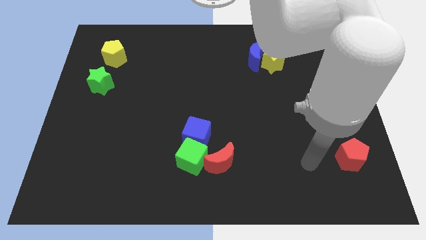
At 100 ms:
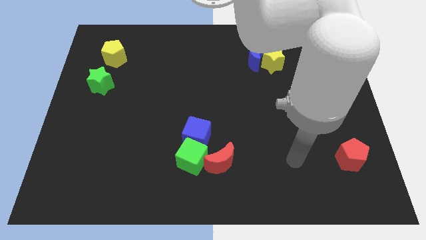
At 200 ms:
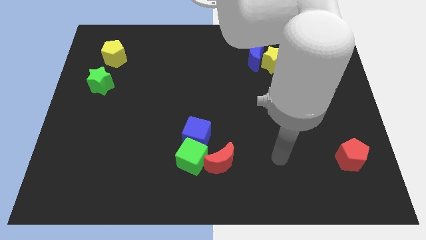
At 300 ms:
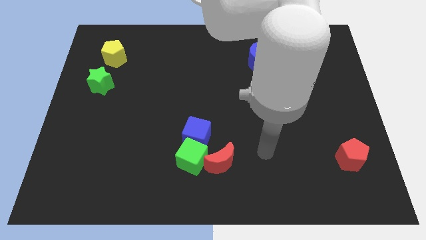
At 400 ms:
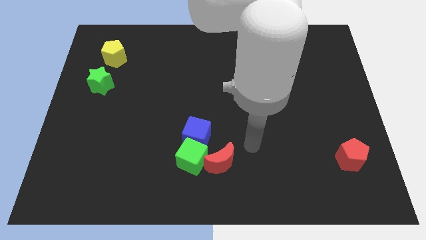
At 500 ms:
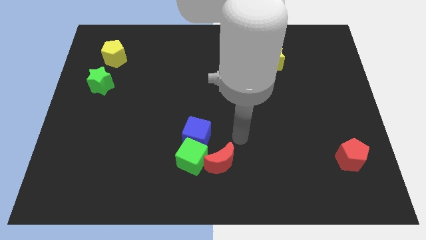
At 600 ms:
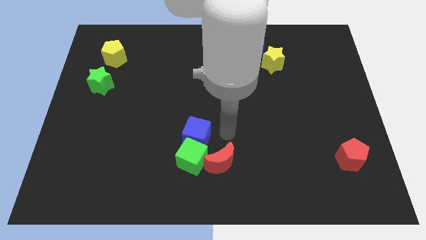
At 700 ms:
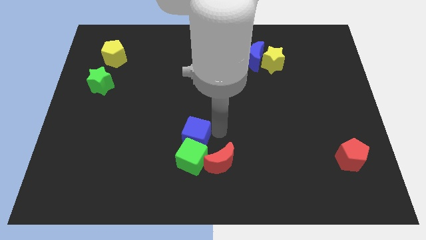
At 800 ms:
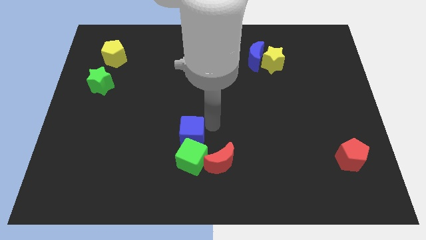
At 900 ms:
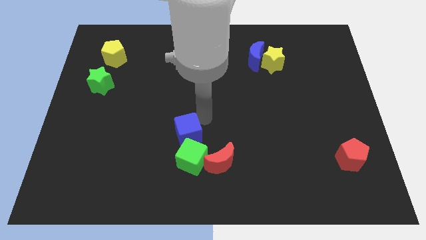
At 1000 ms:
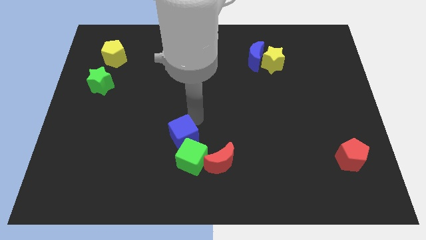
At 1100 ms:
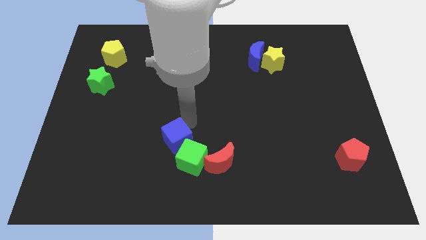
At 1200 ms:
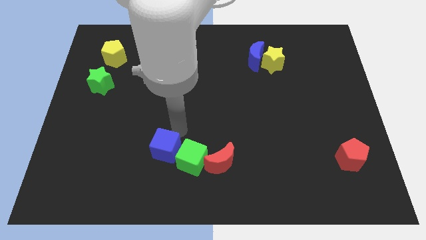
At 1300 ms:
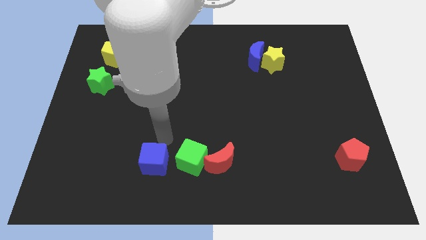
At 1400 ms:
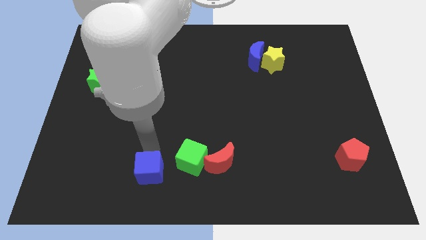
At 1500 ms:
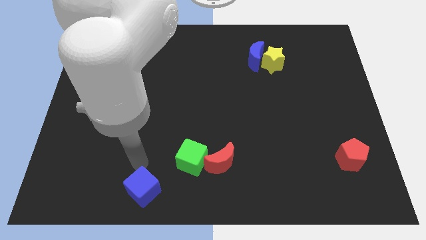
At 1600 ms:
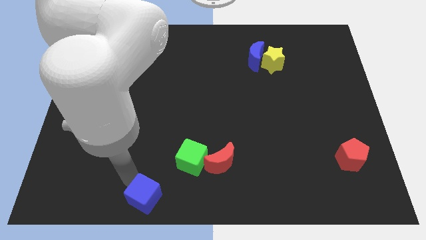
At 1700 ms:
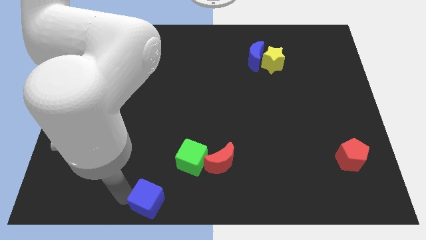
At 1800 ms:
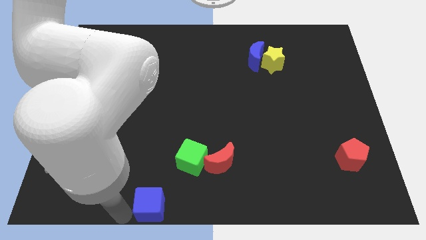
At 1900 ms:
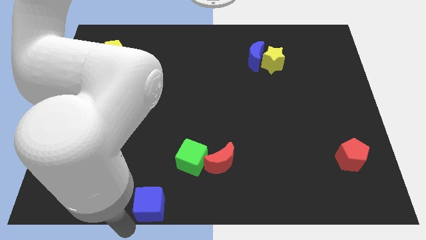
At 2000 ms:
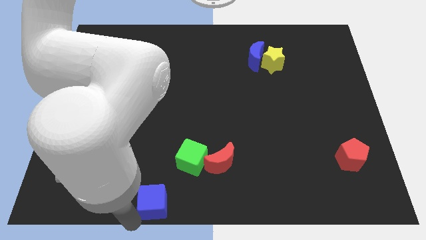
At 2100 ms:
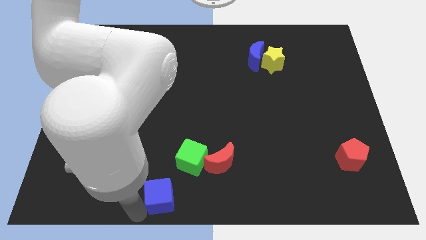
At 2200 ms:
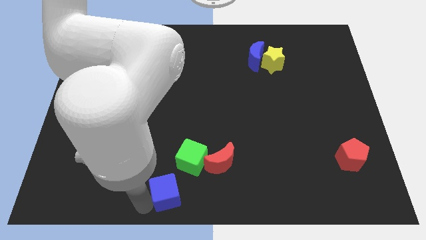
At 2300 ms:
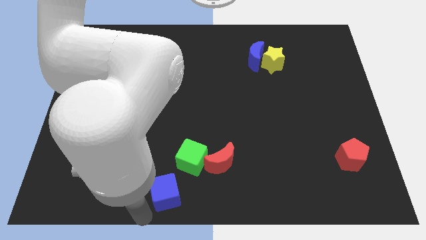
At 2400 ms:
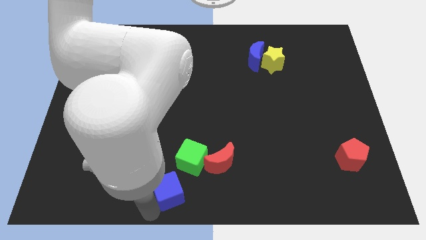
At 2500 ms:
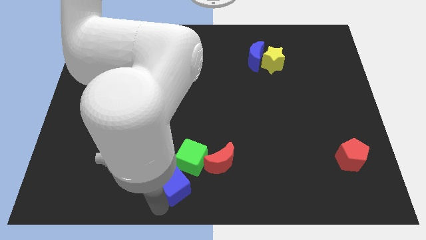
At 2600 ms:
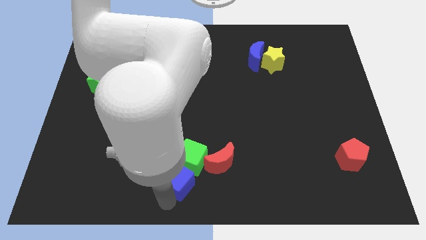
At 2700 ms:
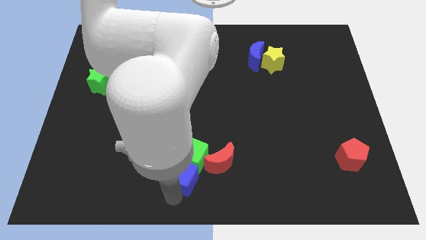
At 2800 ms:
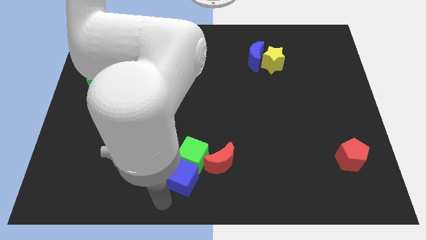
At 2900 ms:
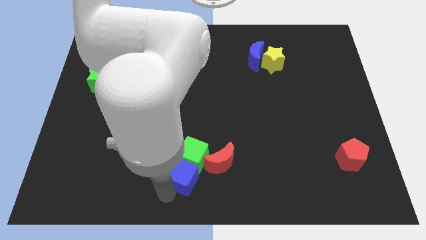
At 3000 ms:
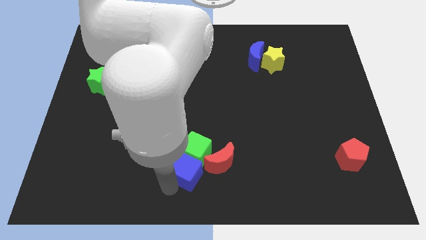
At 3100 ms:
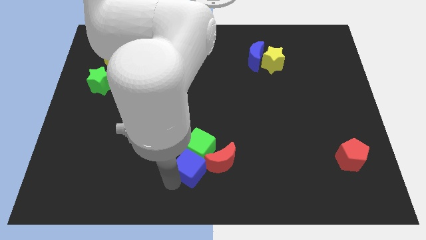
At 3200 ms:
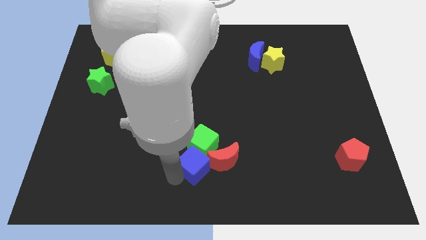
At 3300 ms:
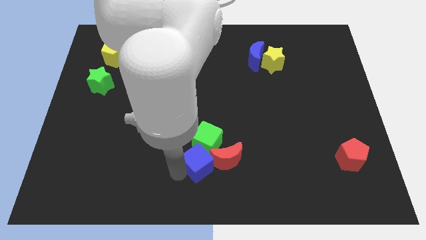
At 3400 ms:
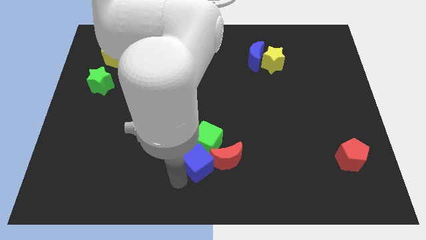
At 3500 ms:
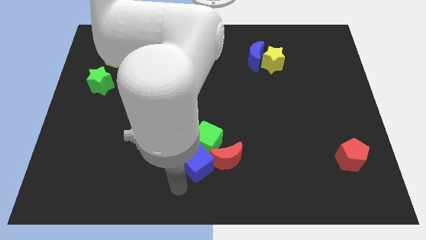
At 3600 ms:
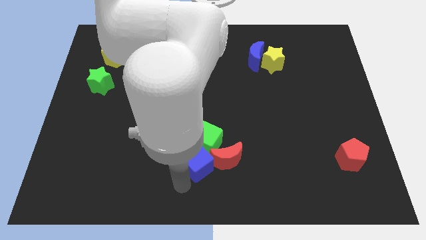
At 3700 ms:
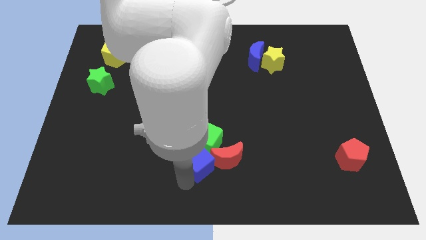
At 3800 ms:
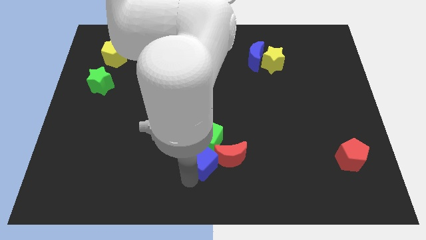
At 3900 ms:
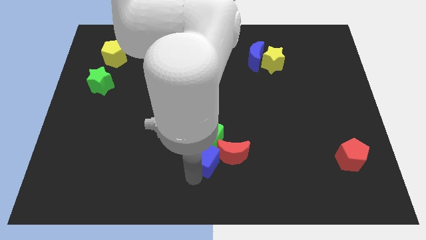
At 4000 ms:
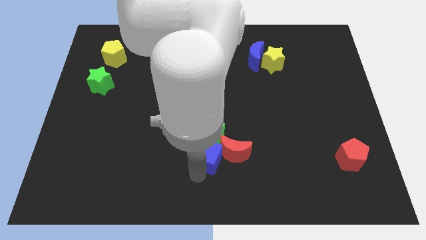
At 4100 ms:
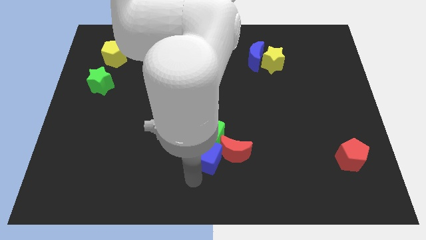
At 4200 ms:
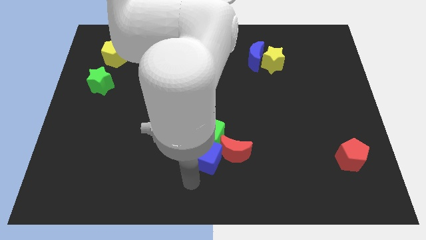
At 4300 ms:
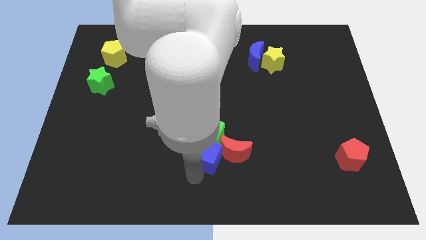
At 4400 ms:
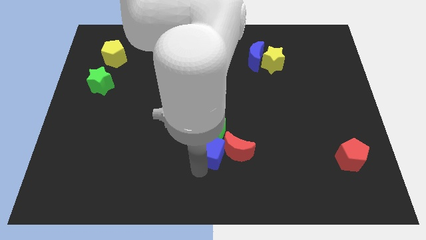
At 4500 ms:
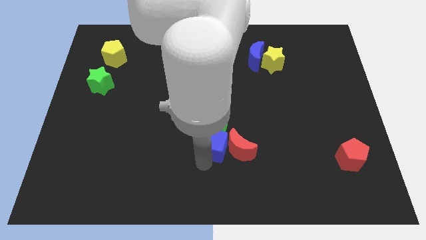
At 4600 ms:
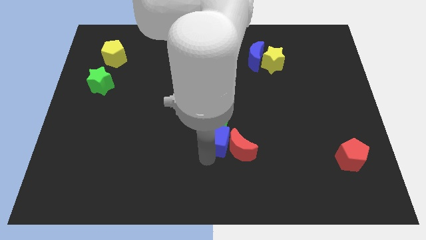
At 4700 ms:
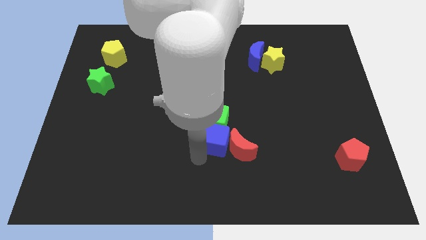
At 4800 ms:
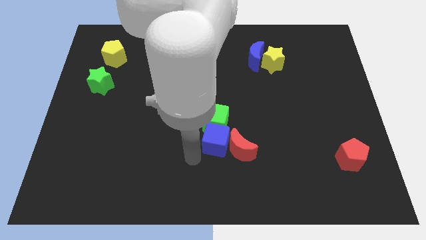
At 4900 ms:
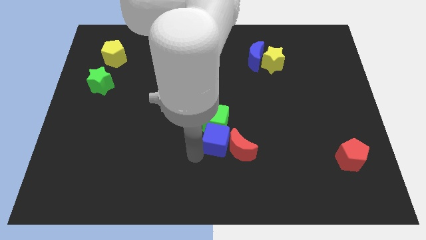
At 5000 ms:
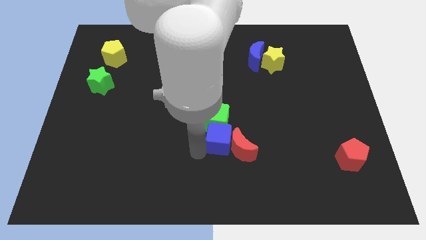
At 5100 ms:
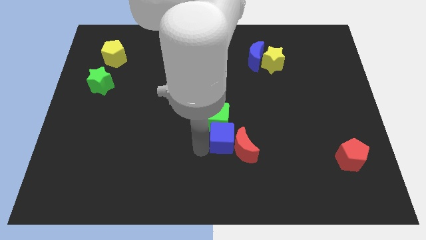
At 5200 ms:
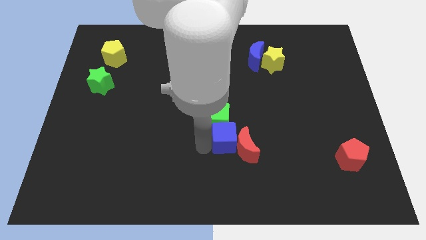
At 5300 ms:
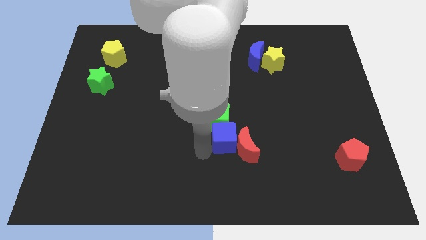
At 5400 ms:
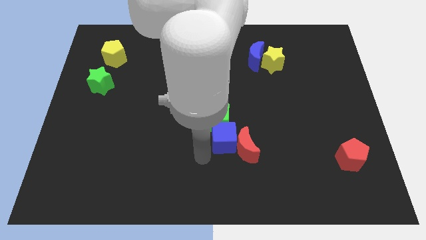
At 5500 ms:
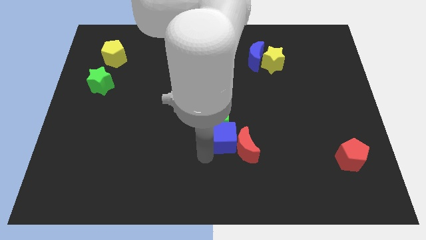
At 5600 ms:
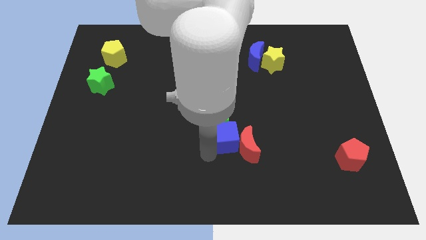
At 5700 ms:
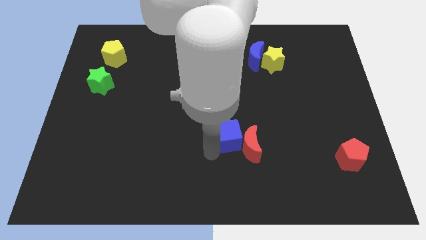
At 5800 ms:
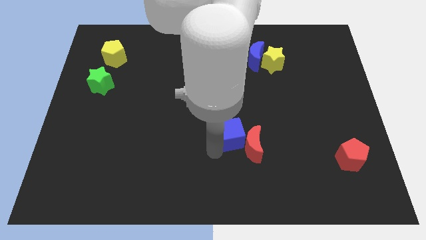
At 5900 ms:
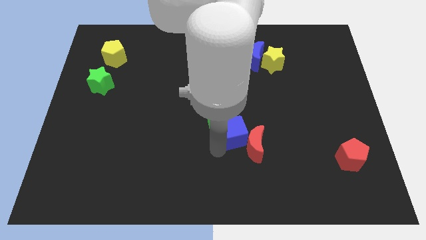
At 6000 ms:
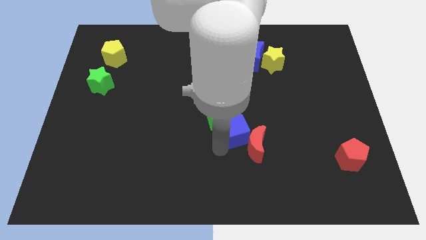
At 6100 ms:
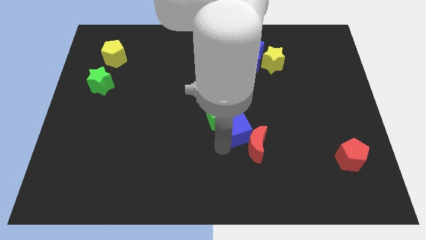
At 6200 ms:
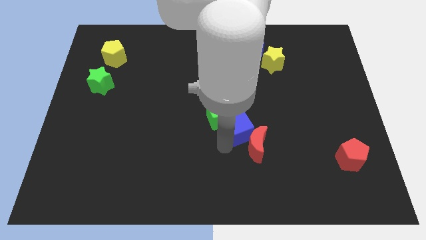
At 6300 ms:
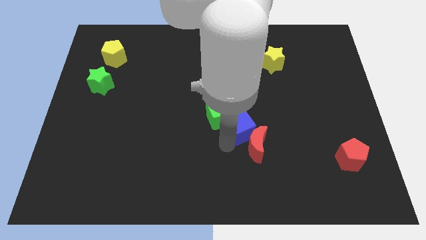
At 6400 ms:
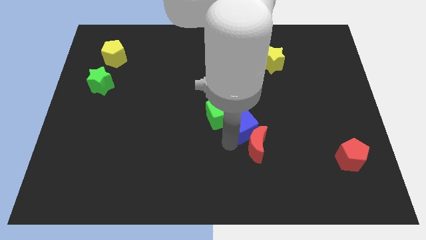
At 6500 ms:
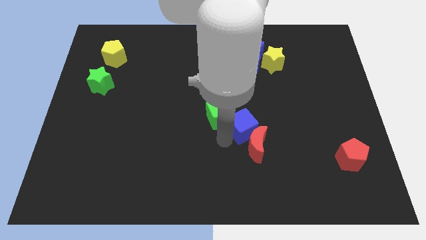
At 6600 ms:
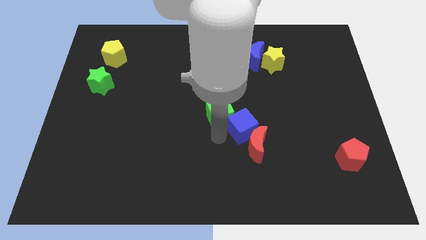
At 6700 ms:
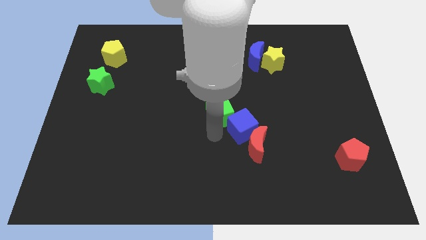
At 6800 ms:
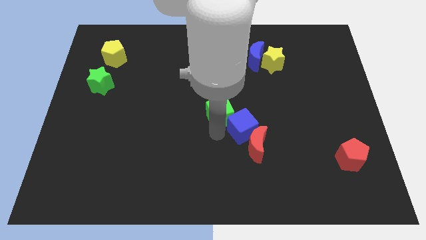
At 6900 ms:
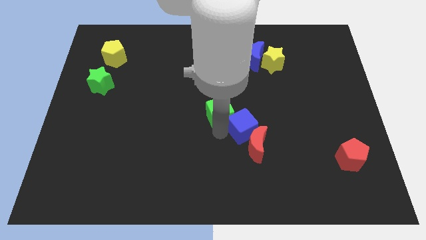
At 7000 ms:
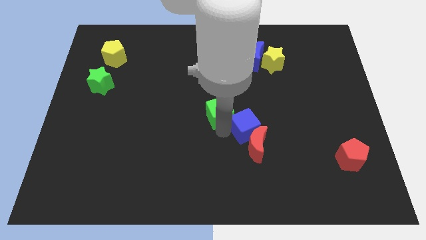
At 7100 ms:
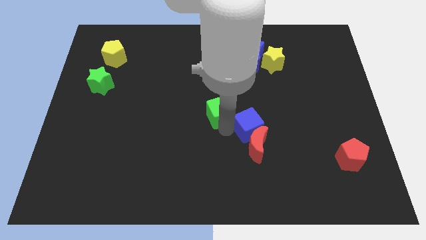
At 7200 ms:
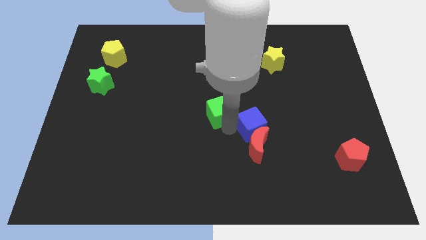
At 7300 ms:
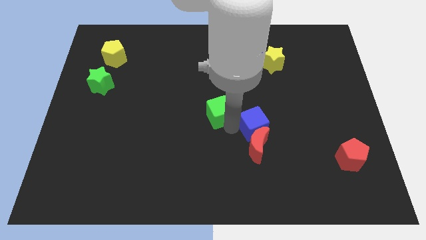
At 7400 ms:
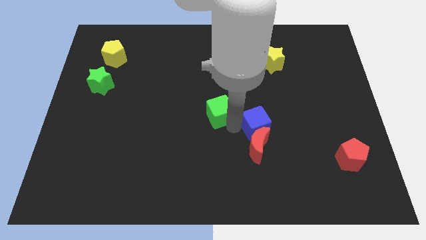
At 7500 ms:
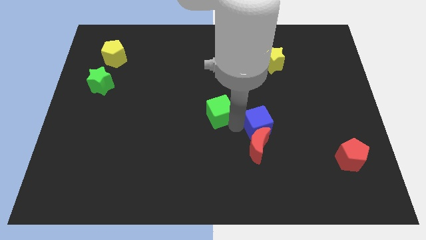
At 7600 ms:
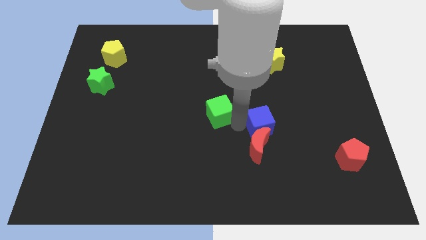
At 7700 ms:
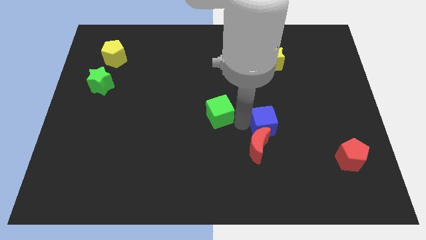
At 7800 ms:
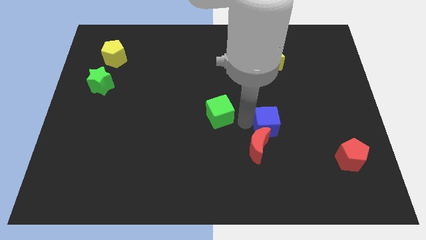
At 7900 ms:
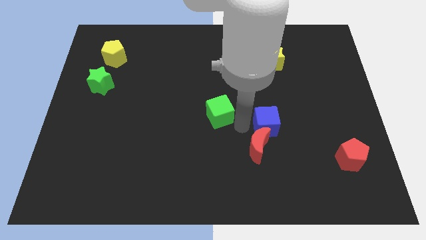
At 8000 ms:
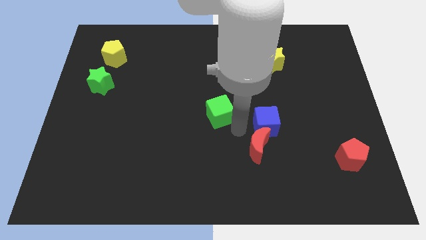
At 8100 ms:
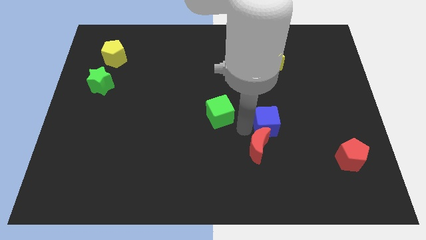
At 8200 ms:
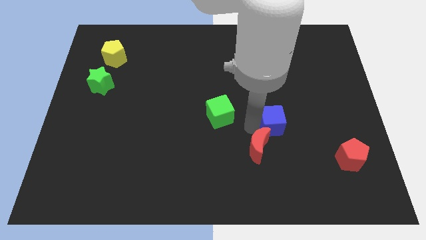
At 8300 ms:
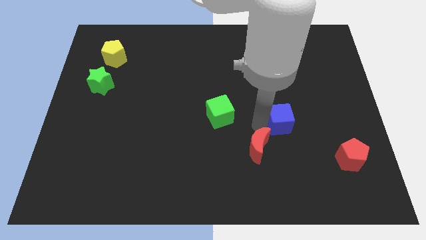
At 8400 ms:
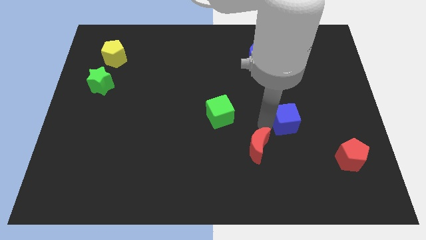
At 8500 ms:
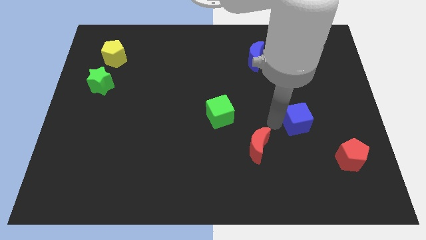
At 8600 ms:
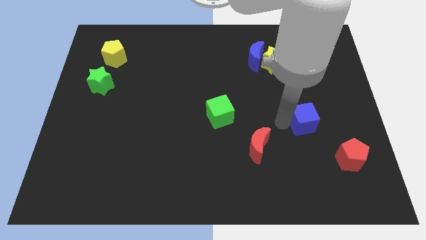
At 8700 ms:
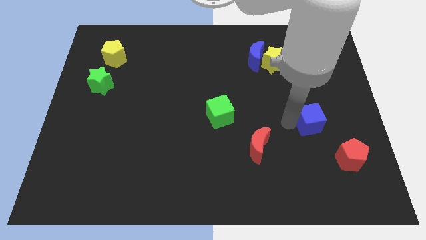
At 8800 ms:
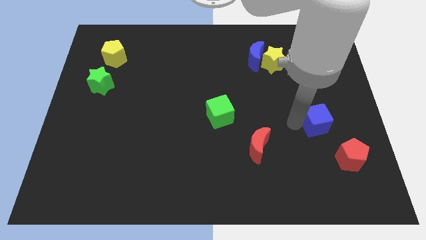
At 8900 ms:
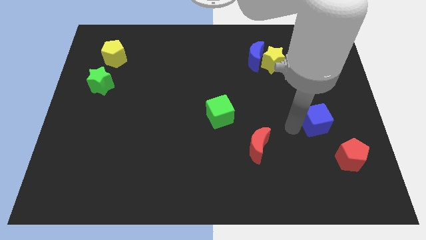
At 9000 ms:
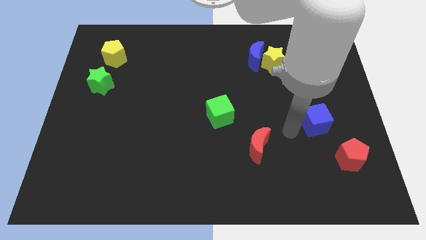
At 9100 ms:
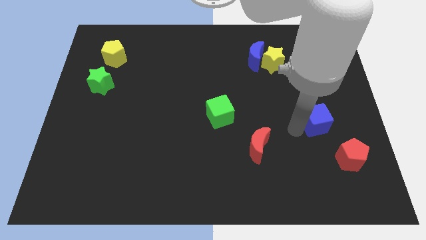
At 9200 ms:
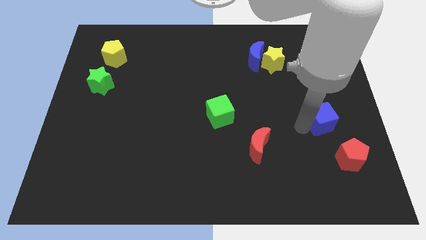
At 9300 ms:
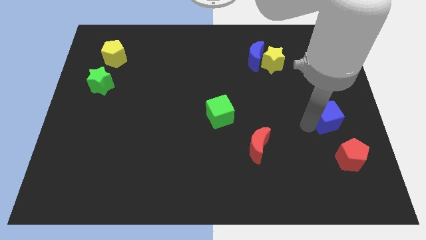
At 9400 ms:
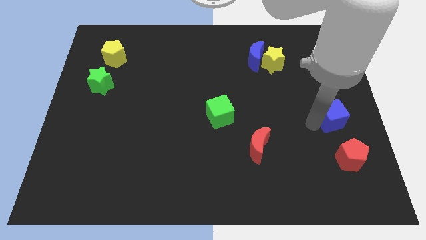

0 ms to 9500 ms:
move the blue cube to the right side of the board
